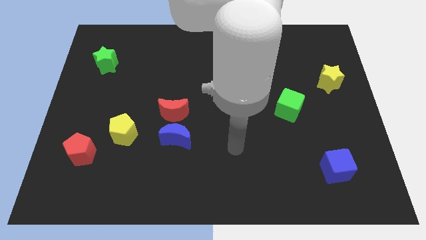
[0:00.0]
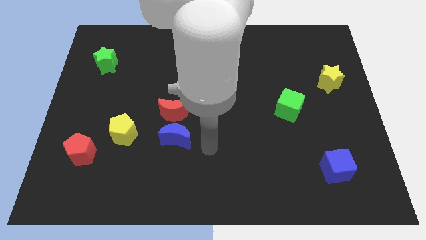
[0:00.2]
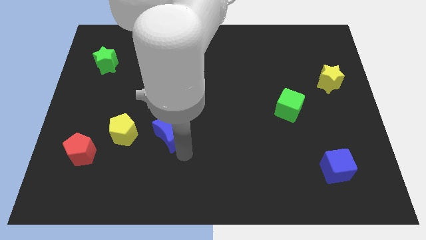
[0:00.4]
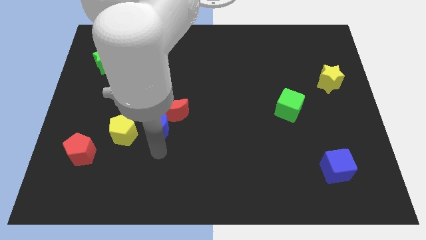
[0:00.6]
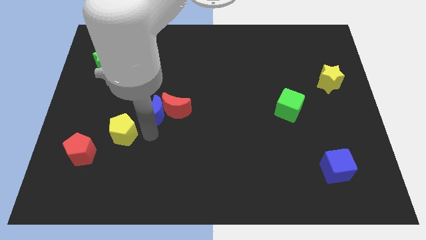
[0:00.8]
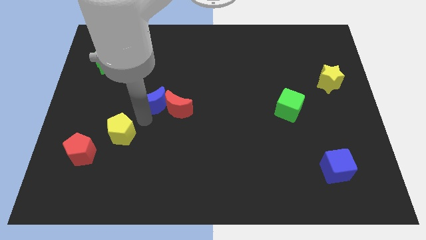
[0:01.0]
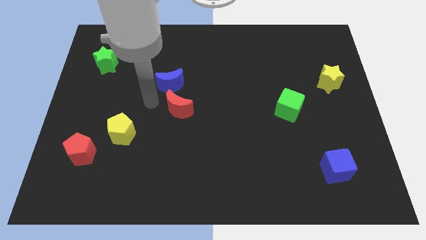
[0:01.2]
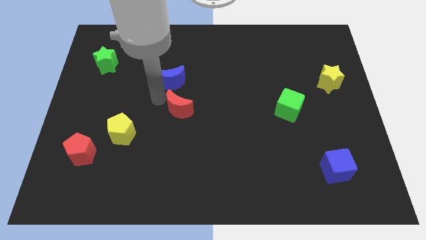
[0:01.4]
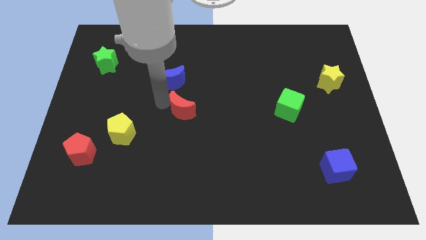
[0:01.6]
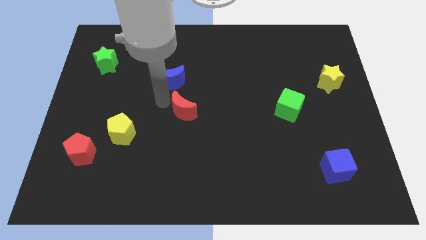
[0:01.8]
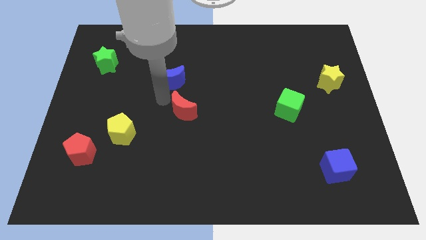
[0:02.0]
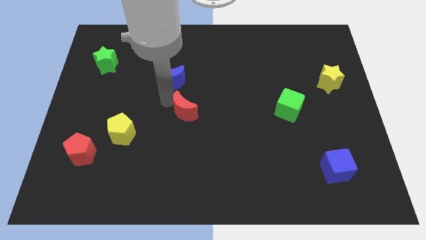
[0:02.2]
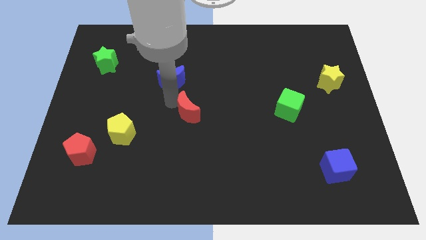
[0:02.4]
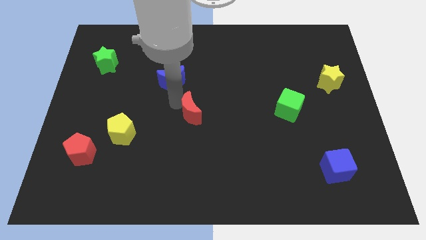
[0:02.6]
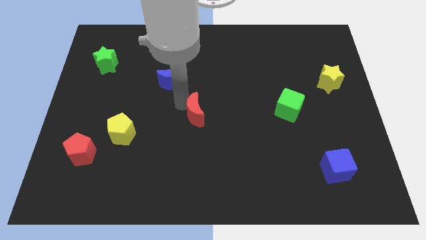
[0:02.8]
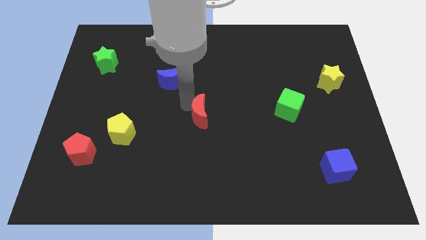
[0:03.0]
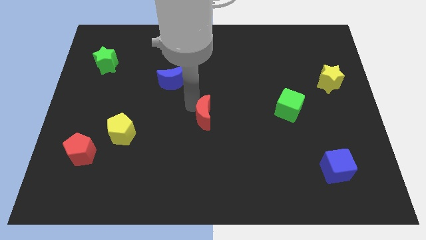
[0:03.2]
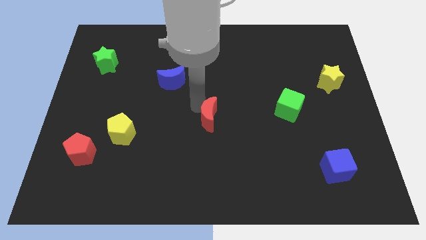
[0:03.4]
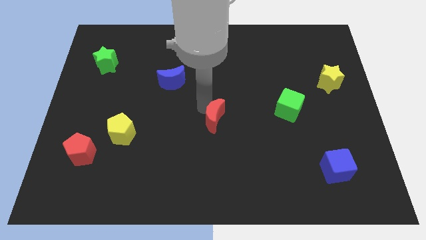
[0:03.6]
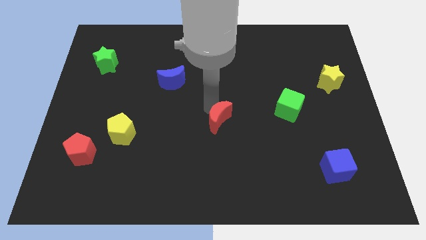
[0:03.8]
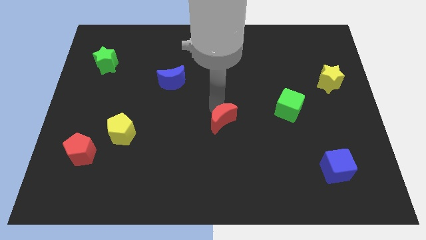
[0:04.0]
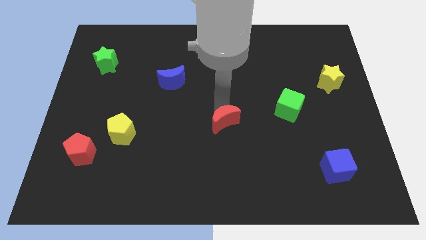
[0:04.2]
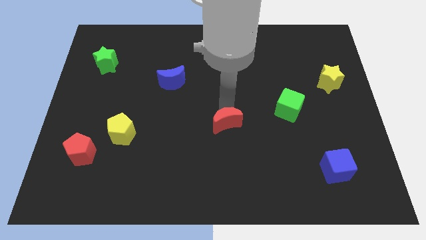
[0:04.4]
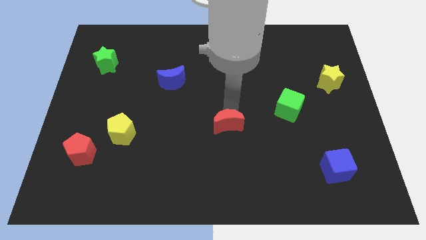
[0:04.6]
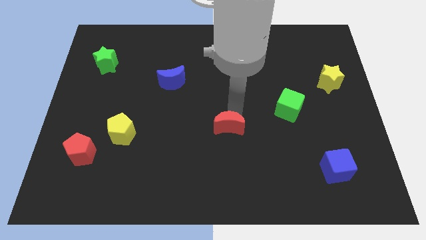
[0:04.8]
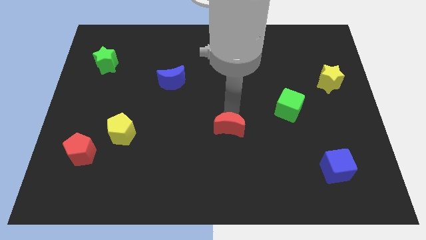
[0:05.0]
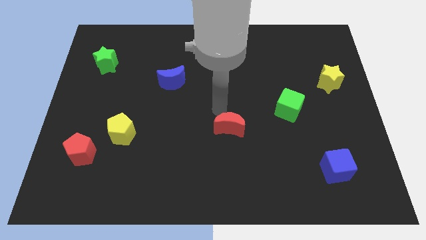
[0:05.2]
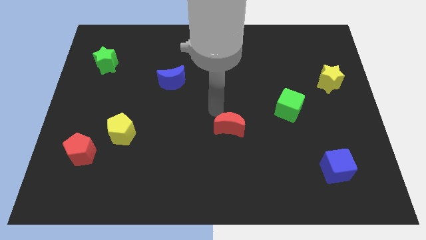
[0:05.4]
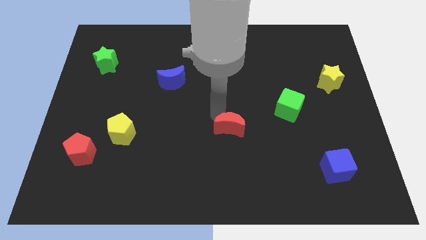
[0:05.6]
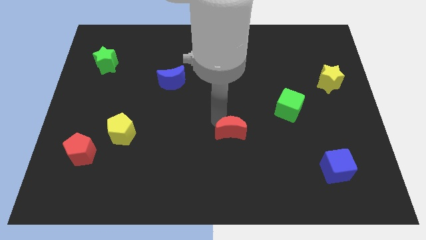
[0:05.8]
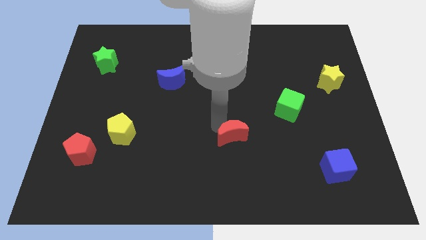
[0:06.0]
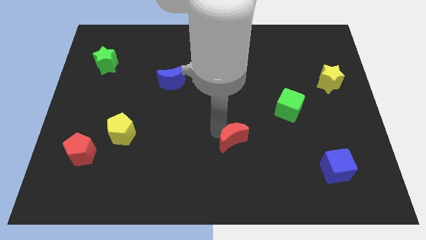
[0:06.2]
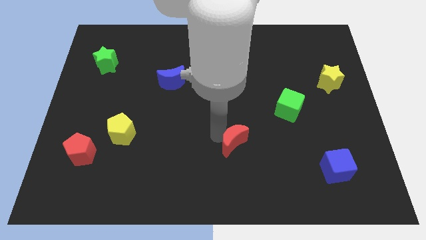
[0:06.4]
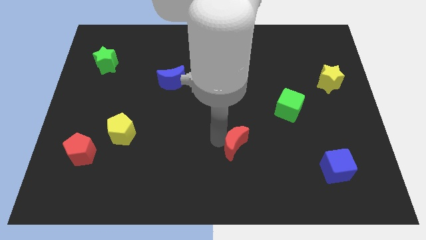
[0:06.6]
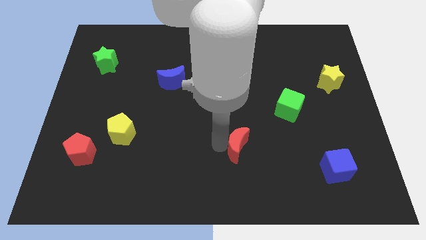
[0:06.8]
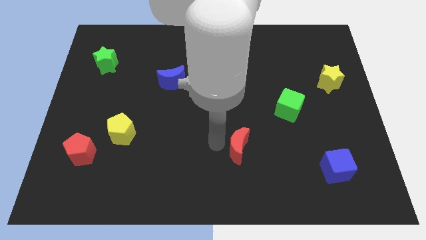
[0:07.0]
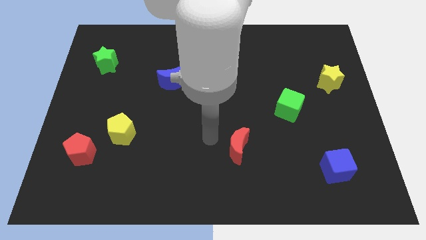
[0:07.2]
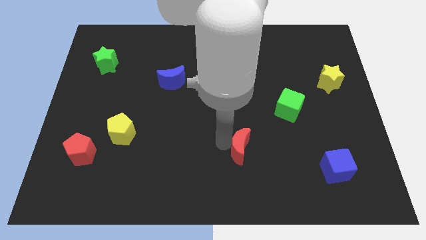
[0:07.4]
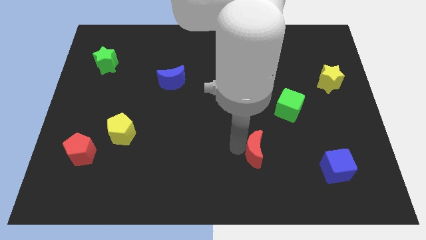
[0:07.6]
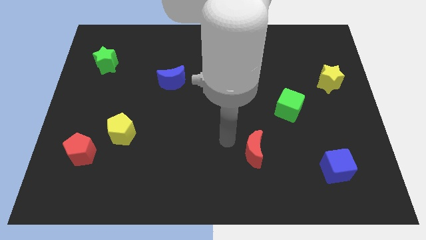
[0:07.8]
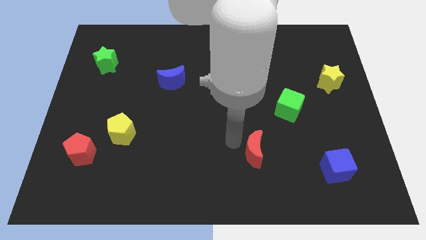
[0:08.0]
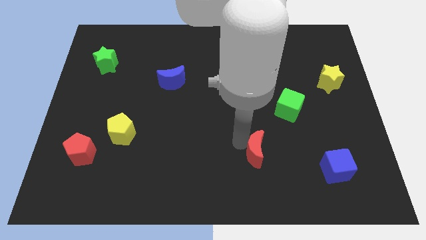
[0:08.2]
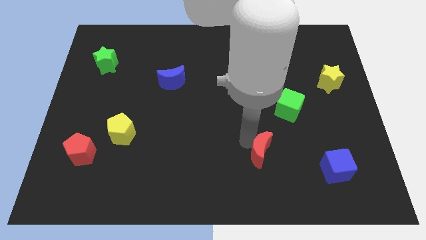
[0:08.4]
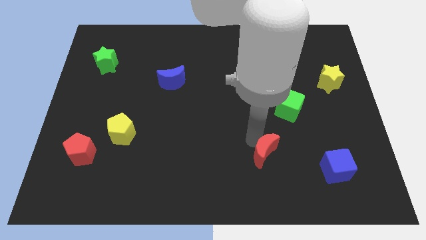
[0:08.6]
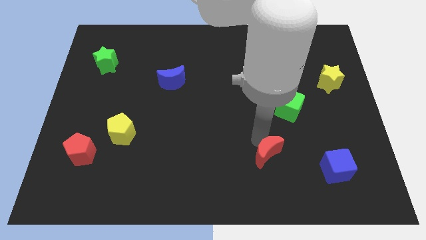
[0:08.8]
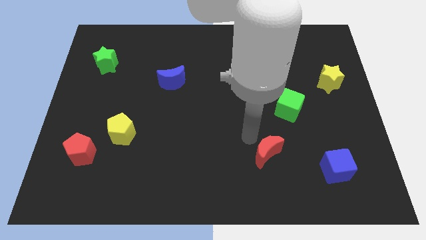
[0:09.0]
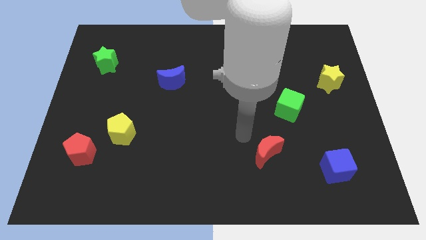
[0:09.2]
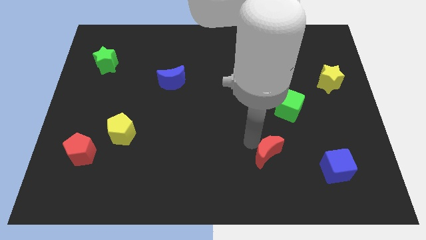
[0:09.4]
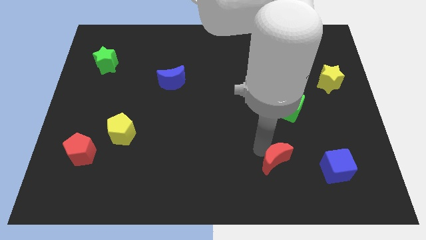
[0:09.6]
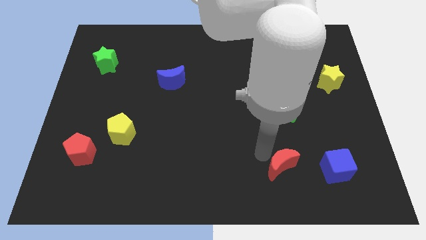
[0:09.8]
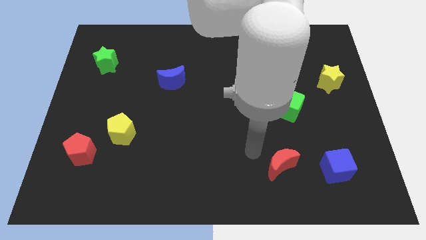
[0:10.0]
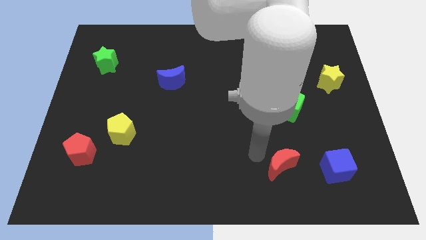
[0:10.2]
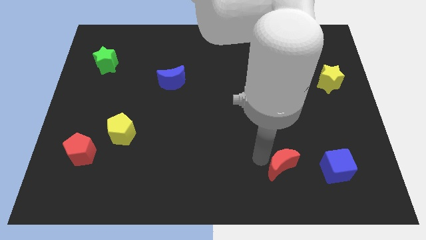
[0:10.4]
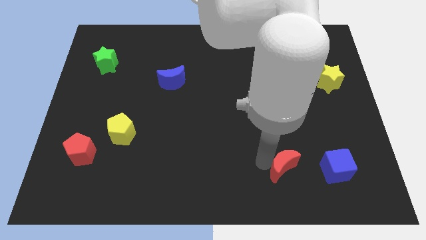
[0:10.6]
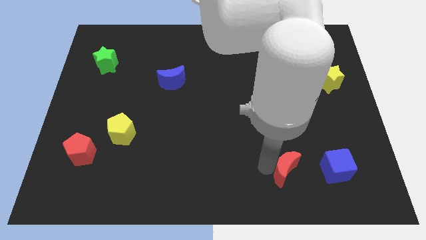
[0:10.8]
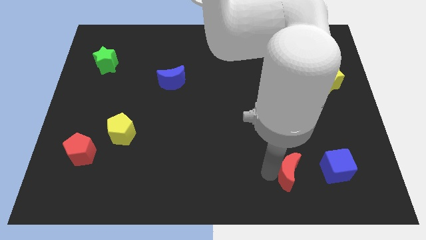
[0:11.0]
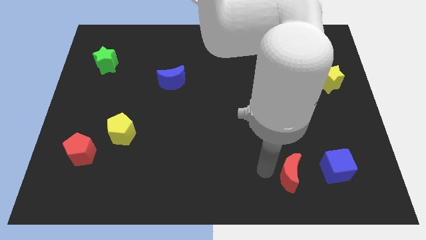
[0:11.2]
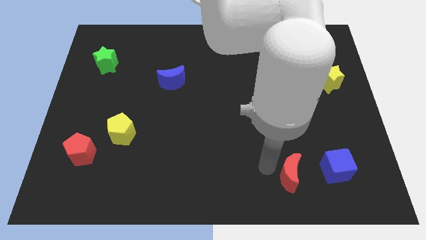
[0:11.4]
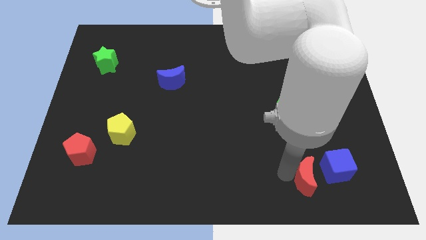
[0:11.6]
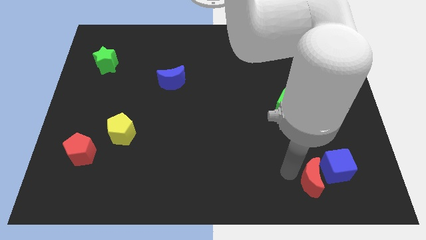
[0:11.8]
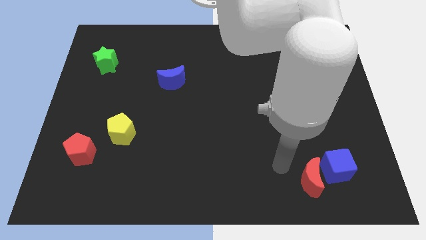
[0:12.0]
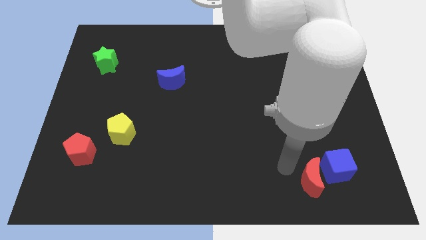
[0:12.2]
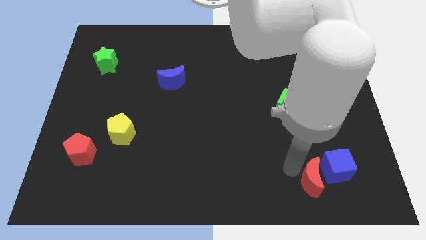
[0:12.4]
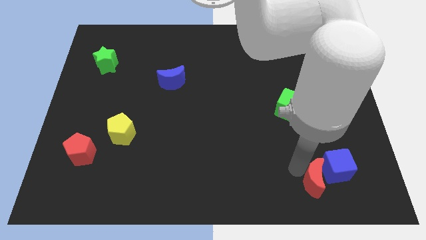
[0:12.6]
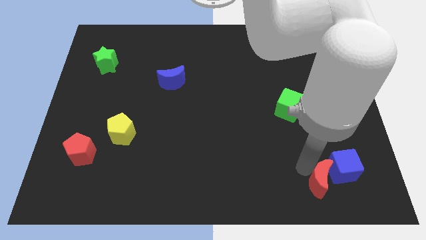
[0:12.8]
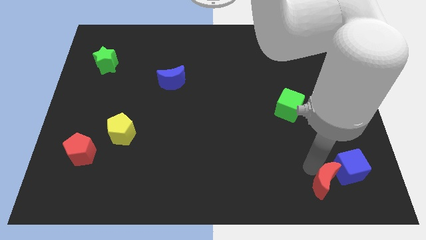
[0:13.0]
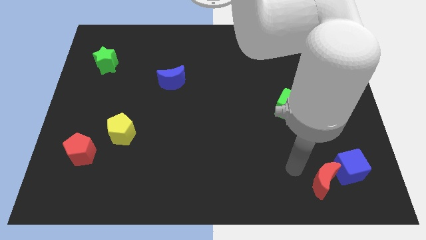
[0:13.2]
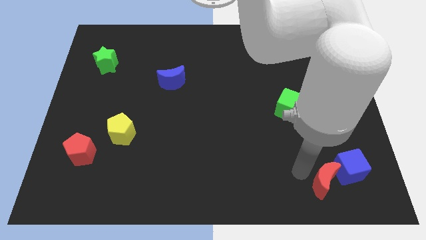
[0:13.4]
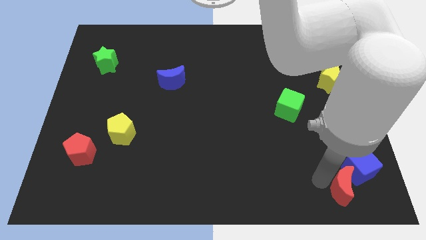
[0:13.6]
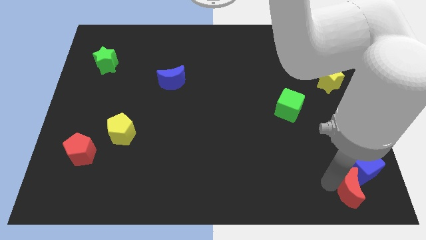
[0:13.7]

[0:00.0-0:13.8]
slide the red moon to the lower right corner
